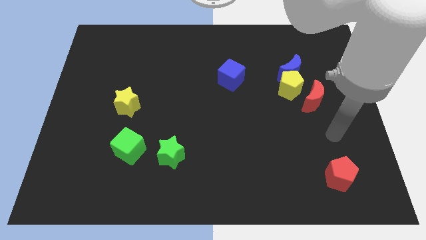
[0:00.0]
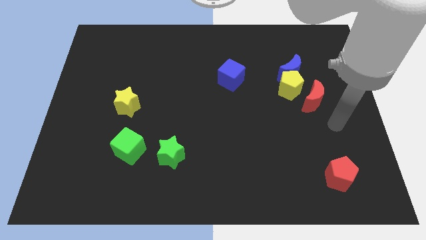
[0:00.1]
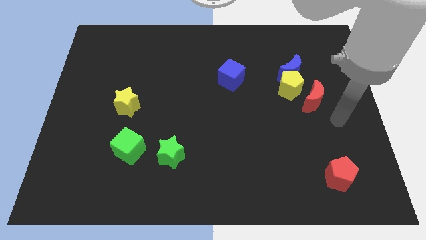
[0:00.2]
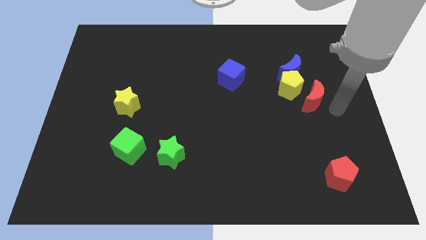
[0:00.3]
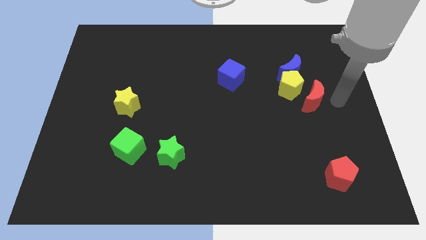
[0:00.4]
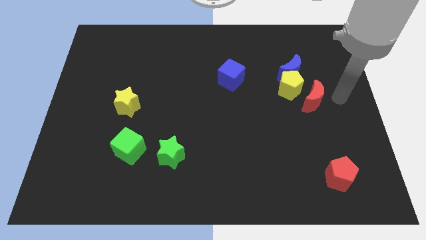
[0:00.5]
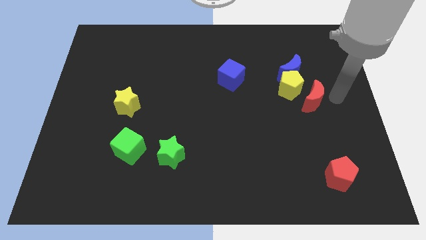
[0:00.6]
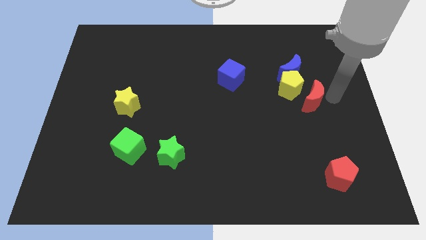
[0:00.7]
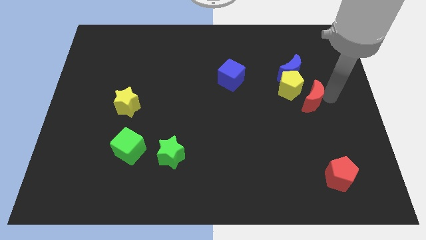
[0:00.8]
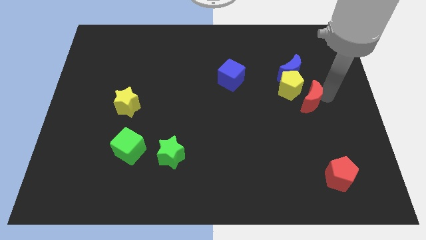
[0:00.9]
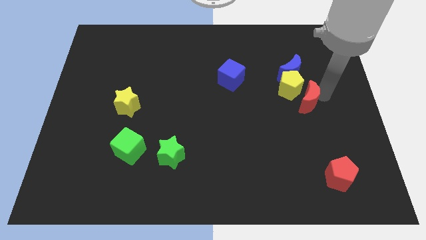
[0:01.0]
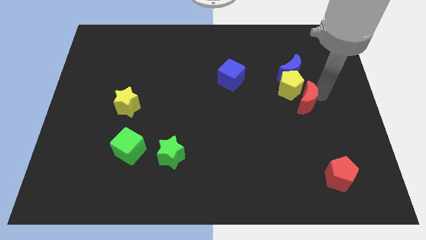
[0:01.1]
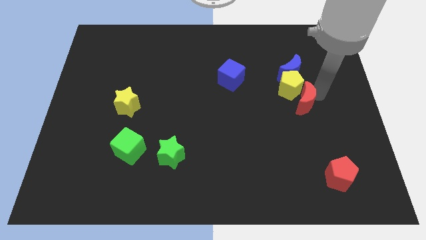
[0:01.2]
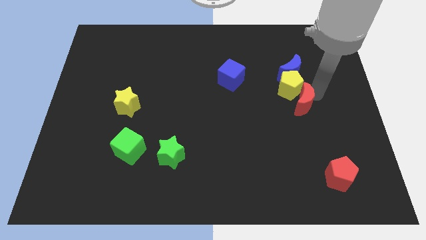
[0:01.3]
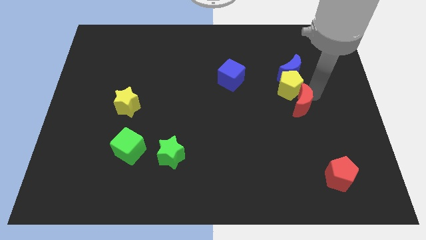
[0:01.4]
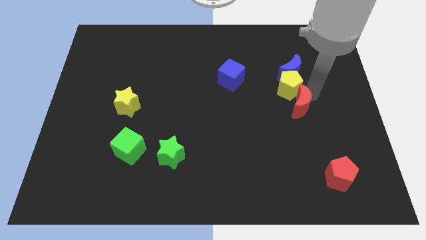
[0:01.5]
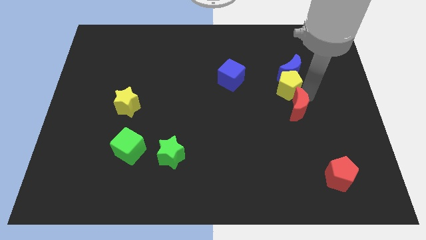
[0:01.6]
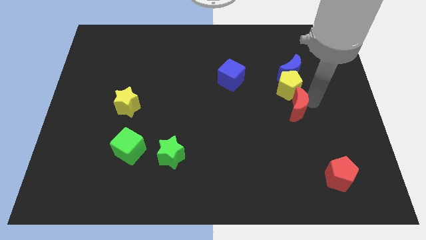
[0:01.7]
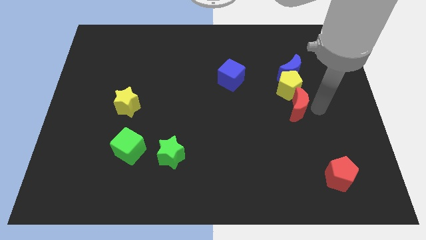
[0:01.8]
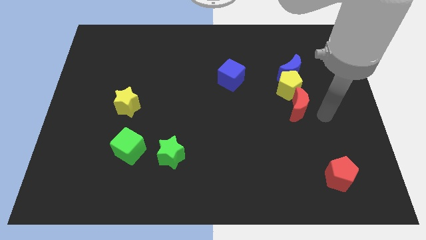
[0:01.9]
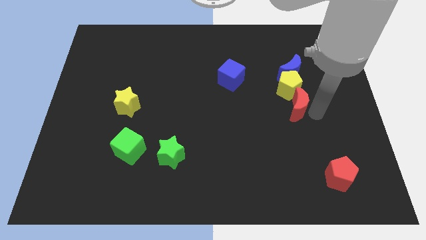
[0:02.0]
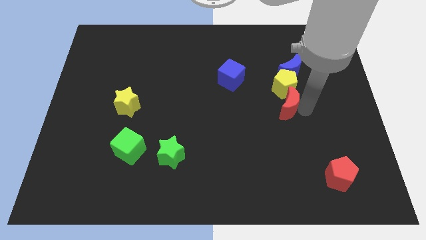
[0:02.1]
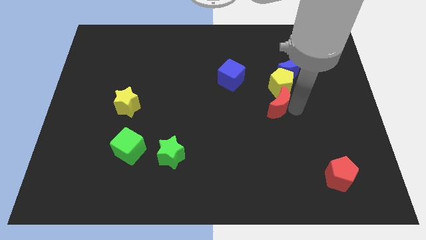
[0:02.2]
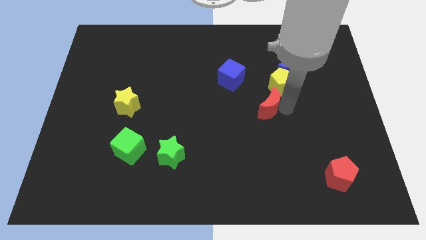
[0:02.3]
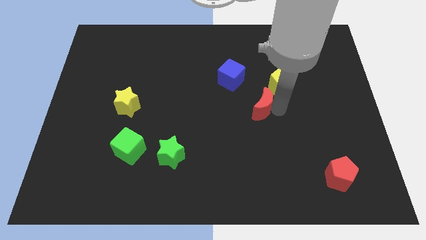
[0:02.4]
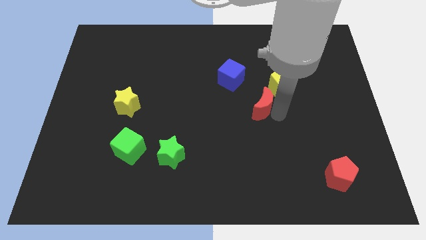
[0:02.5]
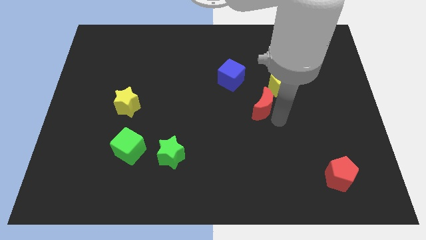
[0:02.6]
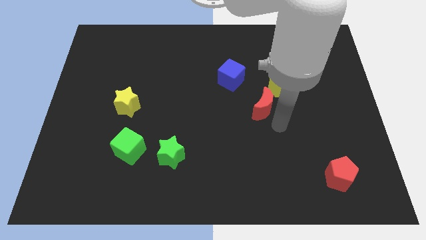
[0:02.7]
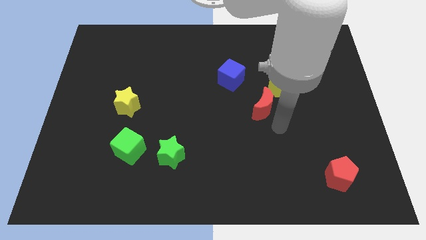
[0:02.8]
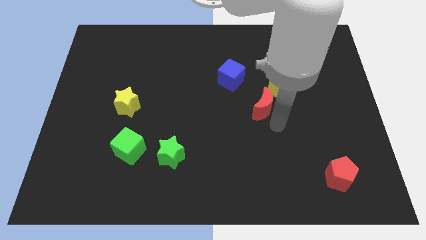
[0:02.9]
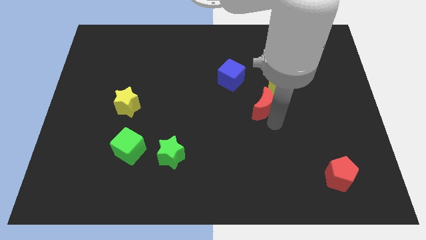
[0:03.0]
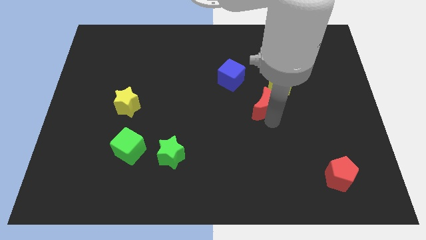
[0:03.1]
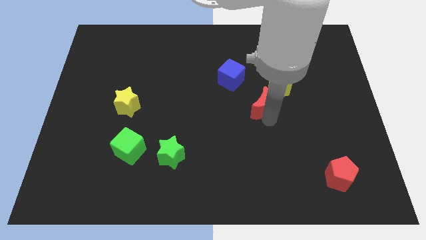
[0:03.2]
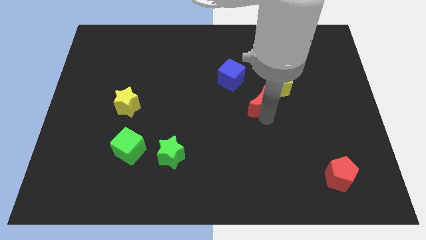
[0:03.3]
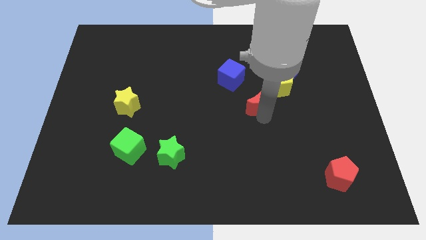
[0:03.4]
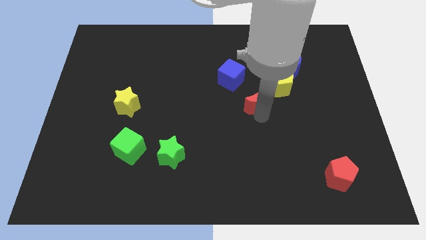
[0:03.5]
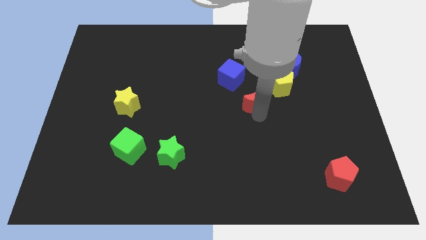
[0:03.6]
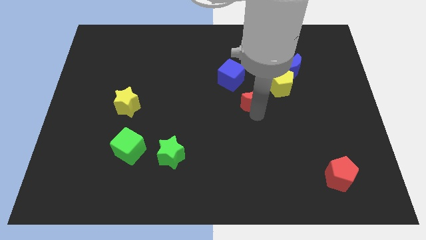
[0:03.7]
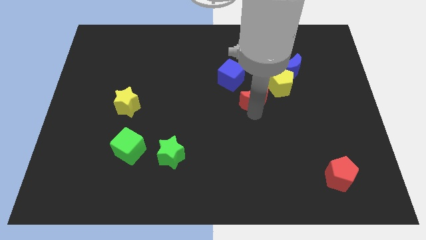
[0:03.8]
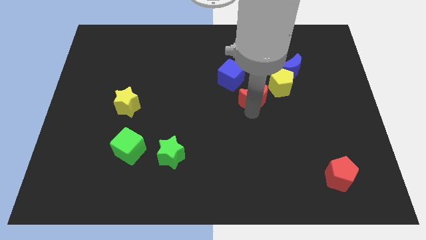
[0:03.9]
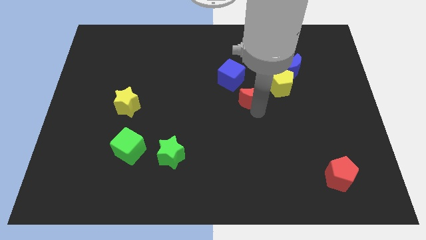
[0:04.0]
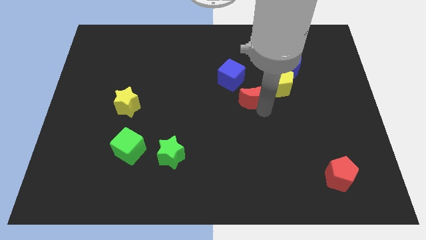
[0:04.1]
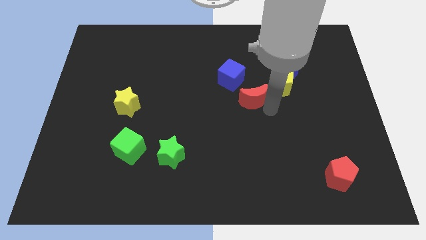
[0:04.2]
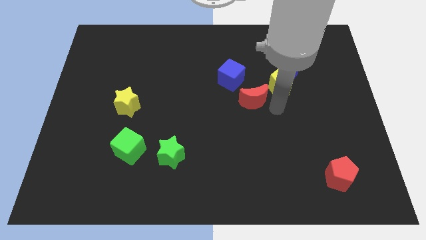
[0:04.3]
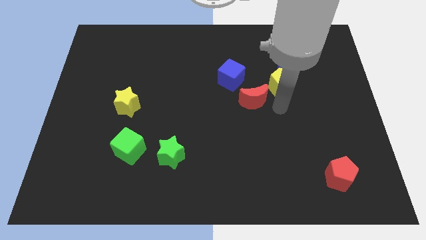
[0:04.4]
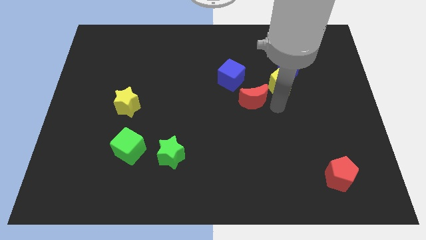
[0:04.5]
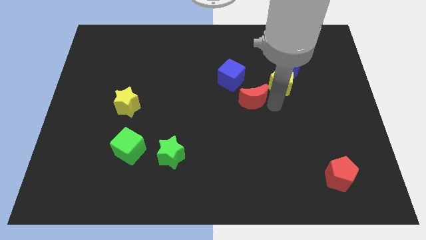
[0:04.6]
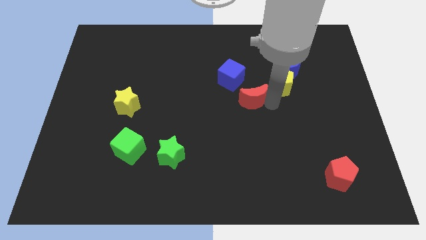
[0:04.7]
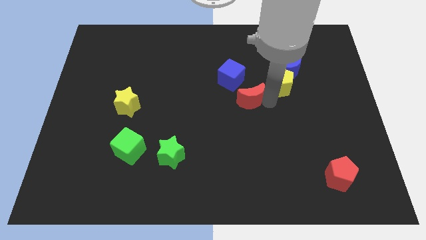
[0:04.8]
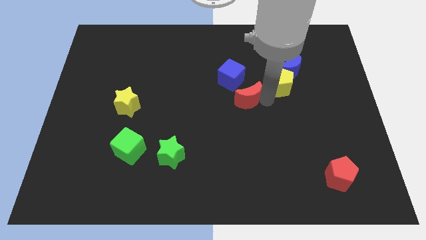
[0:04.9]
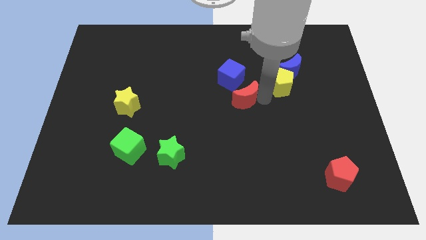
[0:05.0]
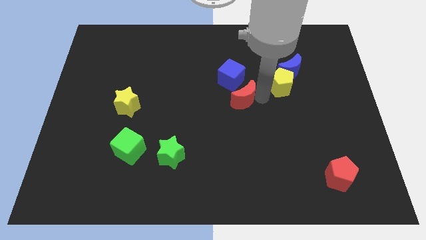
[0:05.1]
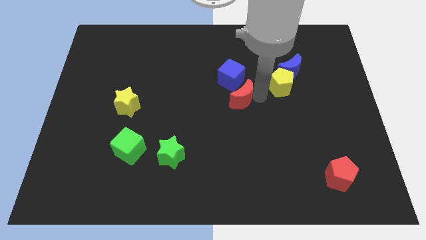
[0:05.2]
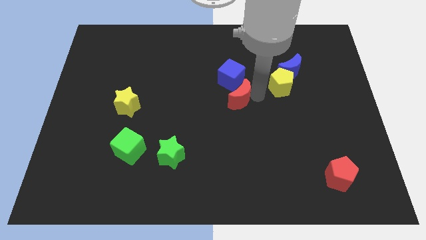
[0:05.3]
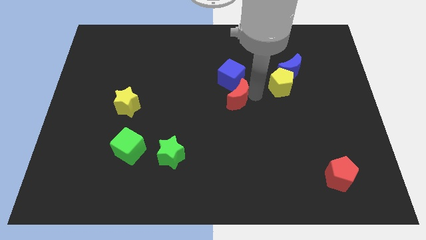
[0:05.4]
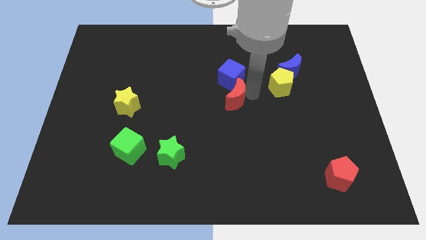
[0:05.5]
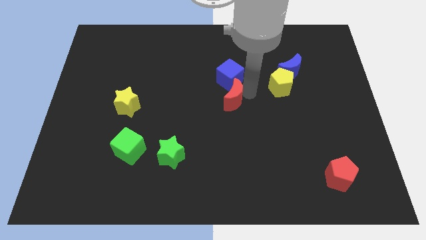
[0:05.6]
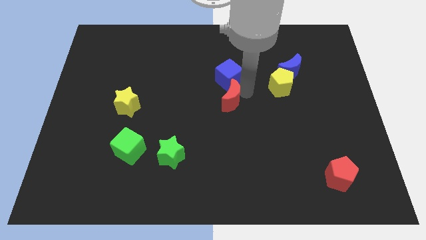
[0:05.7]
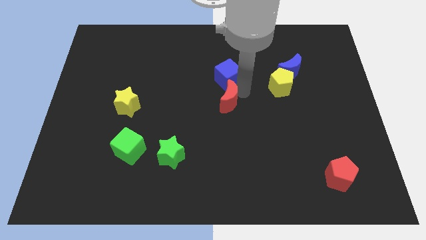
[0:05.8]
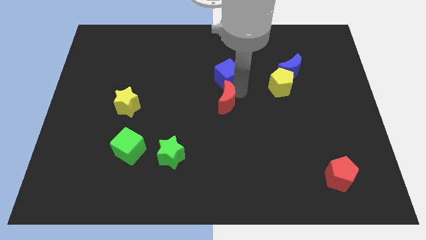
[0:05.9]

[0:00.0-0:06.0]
push the red moon to the bottom left of the blue cube

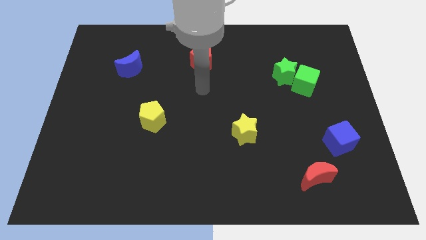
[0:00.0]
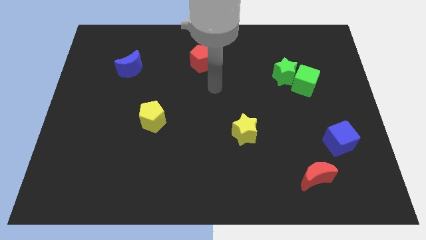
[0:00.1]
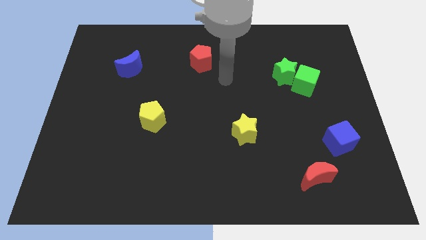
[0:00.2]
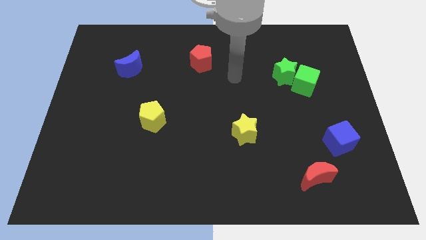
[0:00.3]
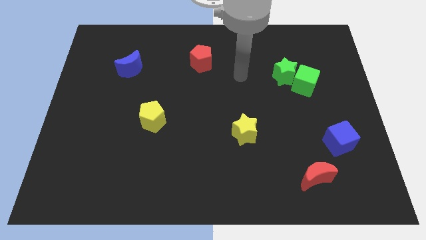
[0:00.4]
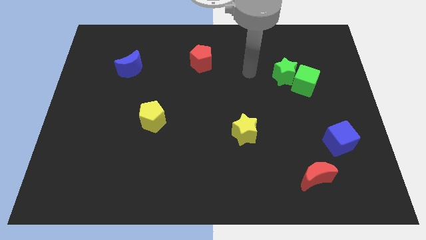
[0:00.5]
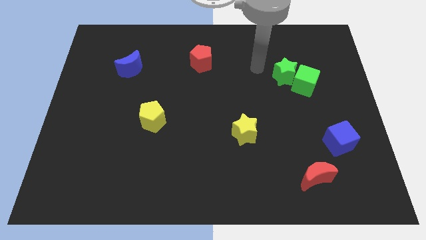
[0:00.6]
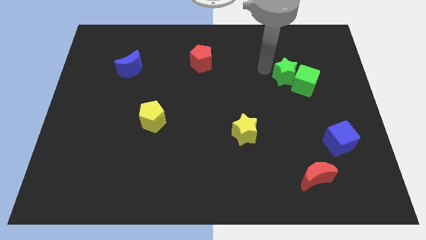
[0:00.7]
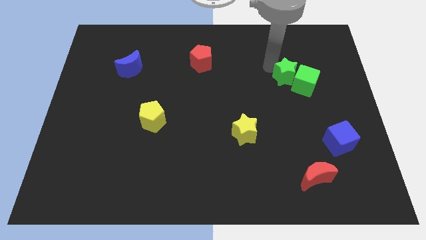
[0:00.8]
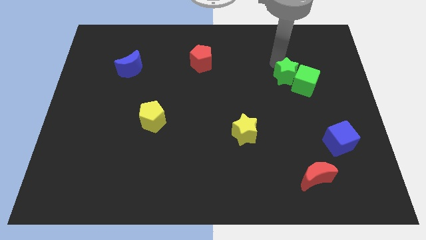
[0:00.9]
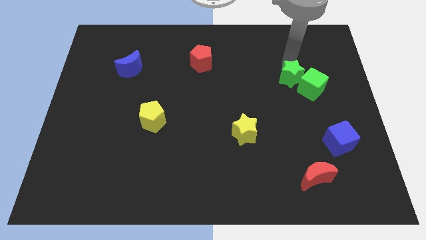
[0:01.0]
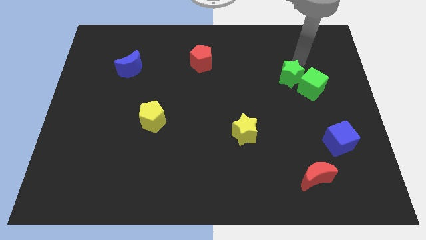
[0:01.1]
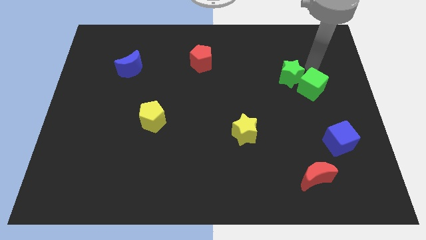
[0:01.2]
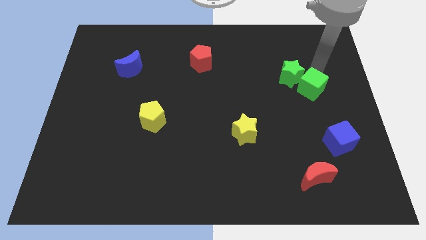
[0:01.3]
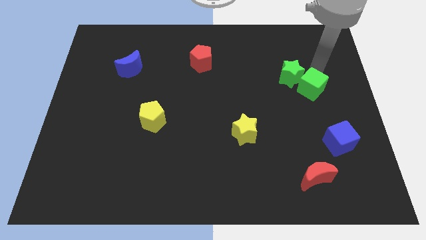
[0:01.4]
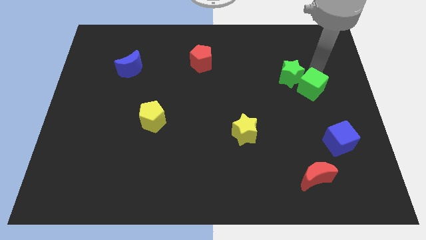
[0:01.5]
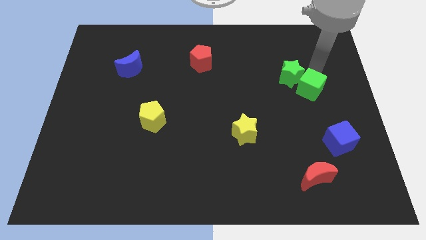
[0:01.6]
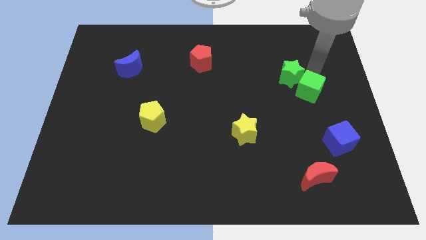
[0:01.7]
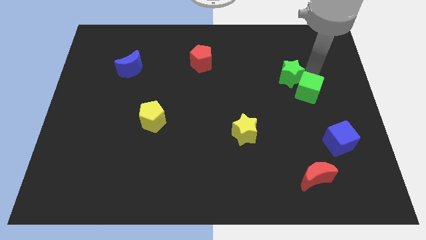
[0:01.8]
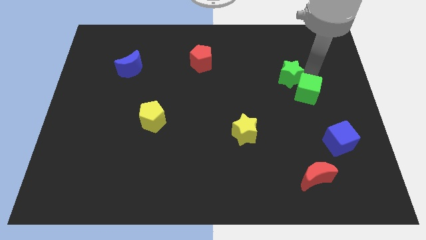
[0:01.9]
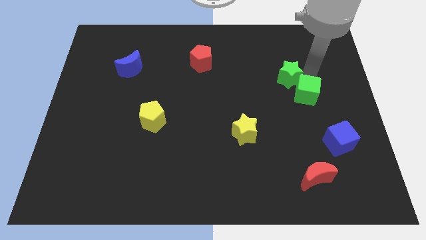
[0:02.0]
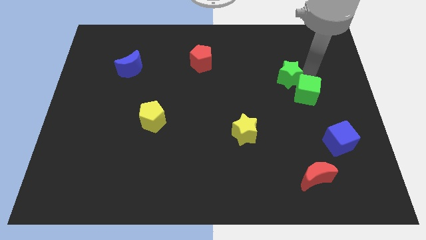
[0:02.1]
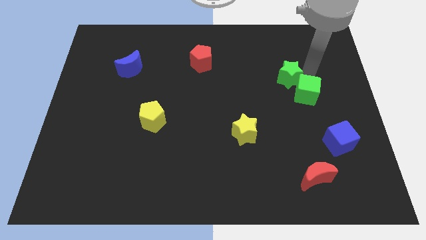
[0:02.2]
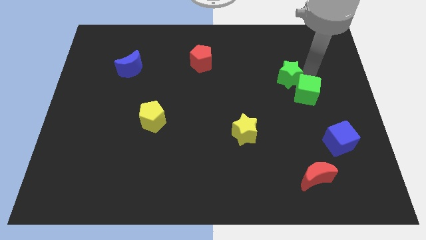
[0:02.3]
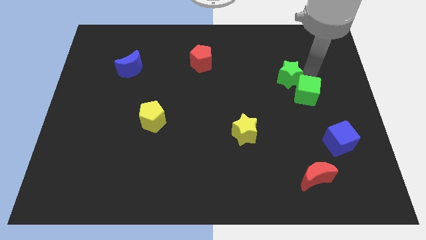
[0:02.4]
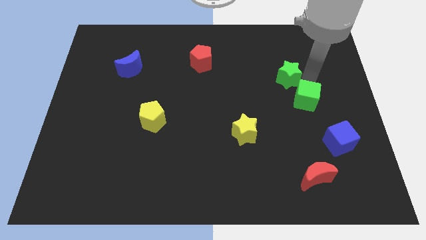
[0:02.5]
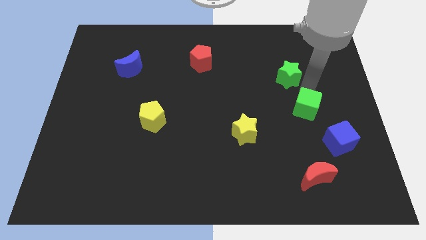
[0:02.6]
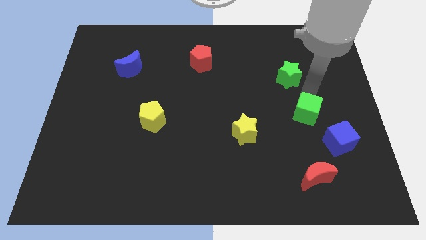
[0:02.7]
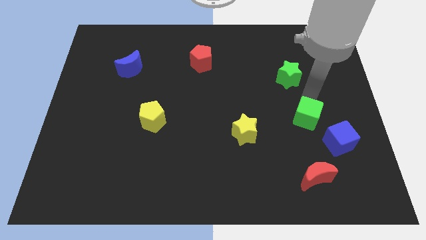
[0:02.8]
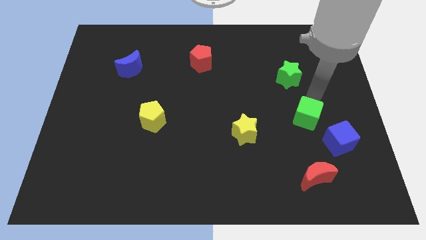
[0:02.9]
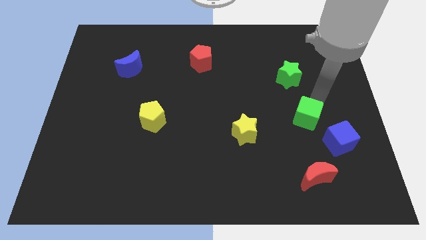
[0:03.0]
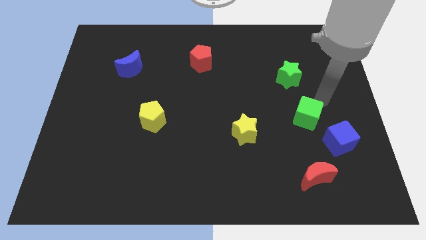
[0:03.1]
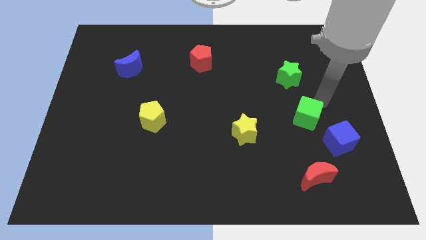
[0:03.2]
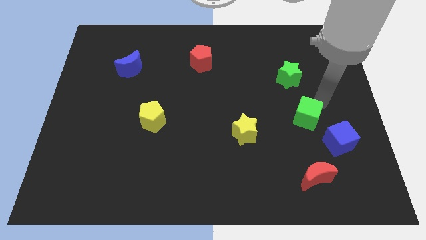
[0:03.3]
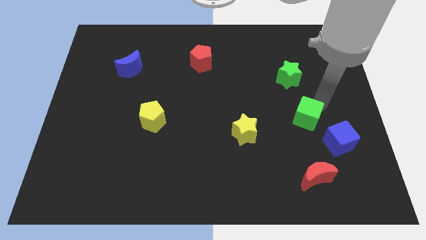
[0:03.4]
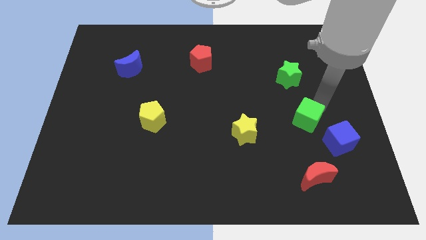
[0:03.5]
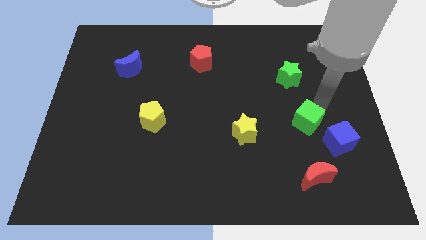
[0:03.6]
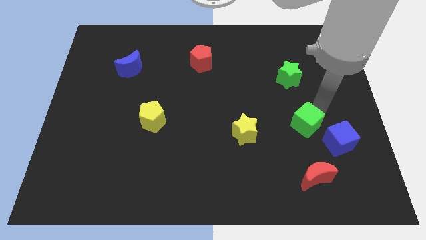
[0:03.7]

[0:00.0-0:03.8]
put the green cube to the left side of the blue cube
